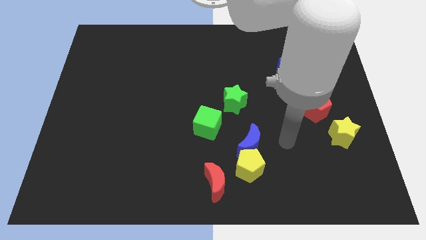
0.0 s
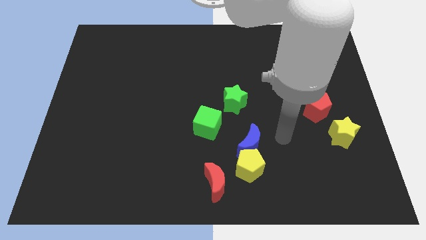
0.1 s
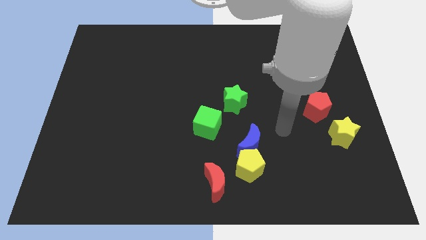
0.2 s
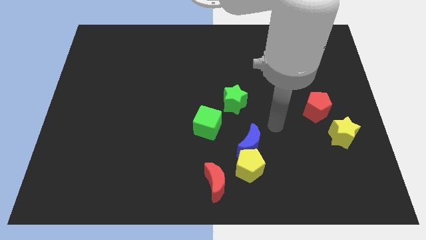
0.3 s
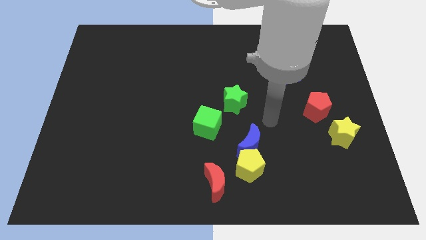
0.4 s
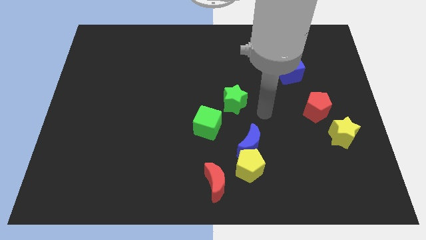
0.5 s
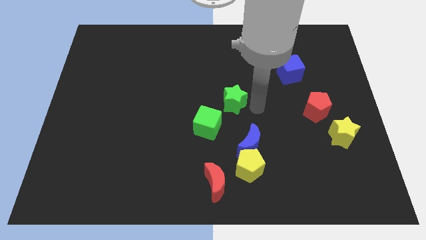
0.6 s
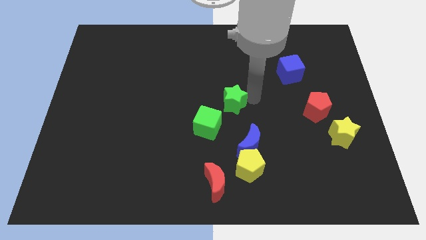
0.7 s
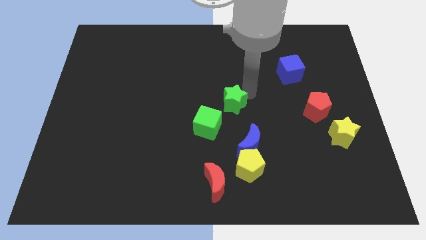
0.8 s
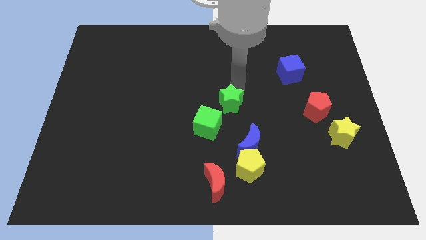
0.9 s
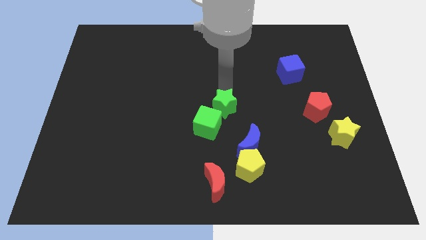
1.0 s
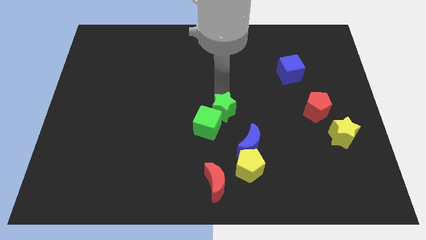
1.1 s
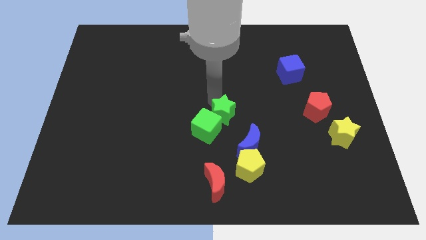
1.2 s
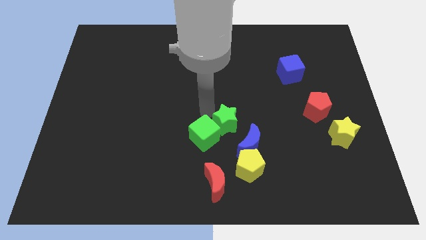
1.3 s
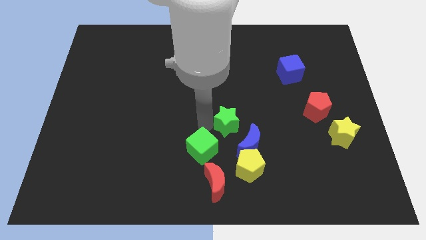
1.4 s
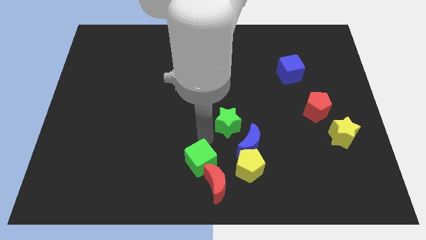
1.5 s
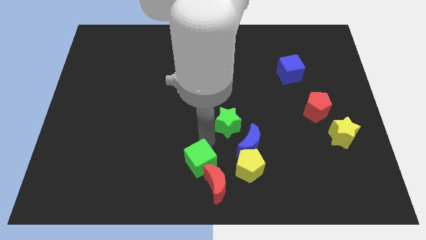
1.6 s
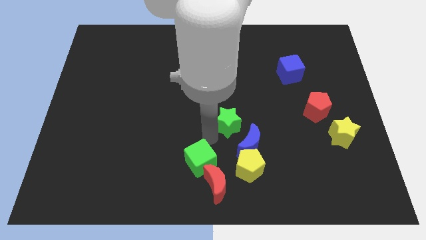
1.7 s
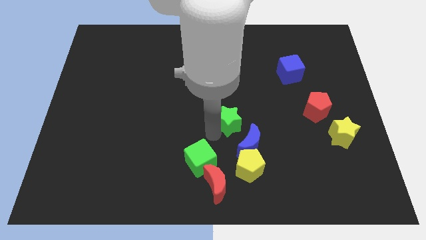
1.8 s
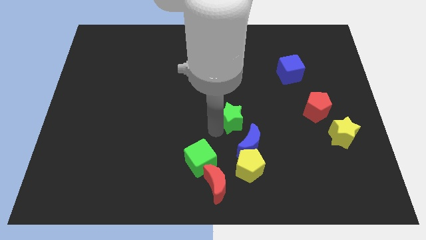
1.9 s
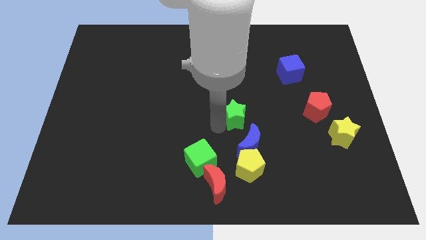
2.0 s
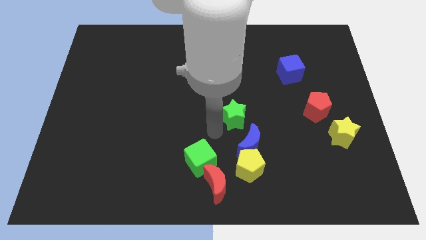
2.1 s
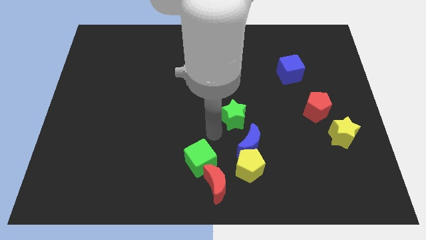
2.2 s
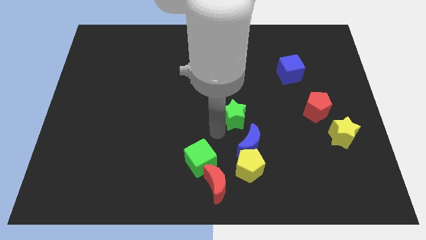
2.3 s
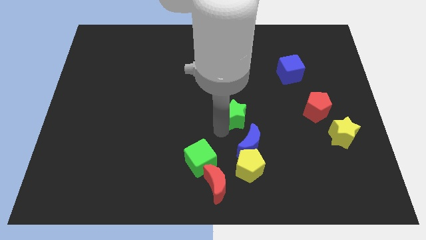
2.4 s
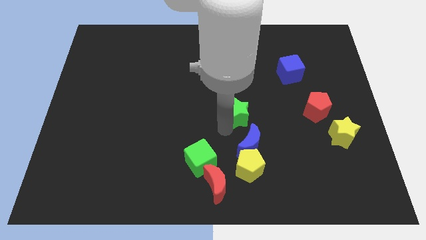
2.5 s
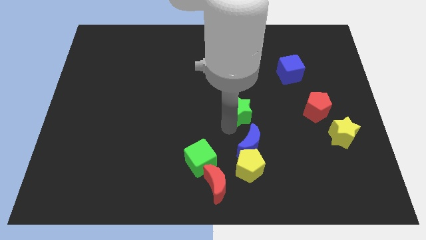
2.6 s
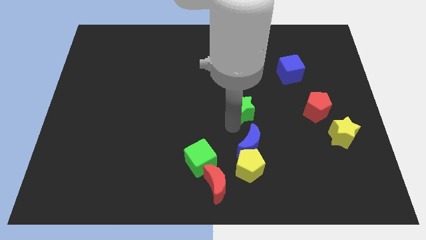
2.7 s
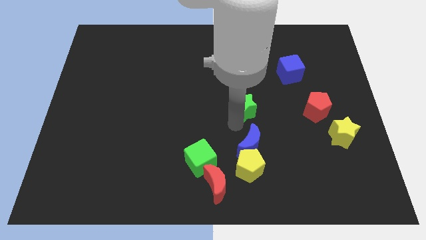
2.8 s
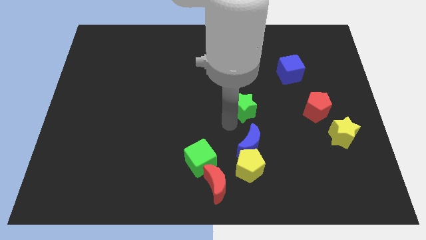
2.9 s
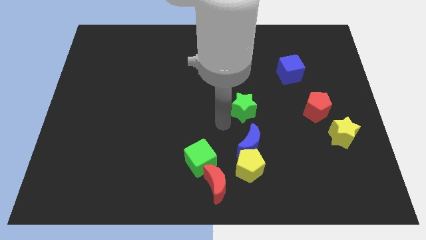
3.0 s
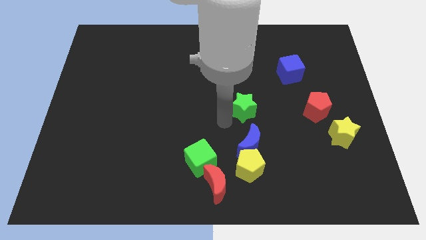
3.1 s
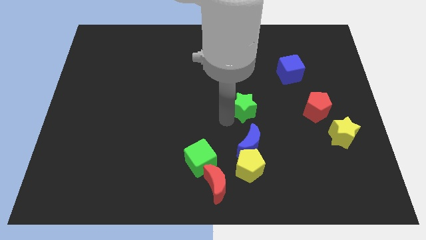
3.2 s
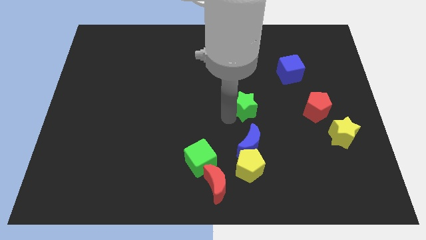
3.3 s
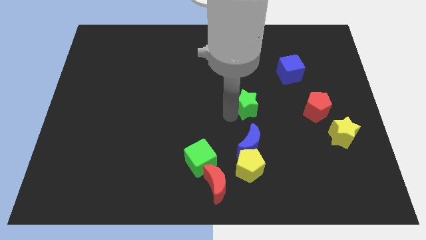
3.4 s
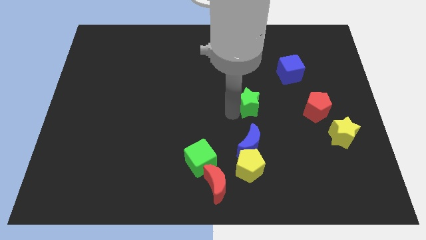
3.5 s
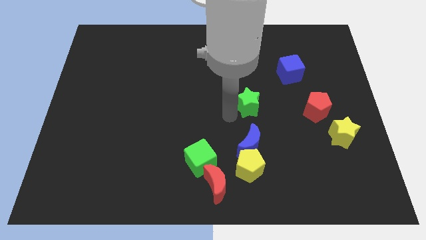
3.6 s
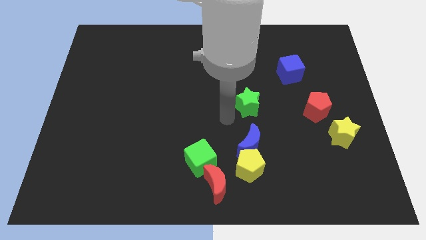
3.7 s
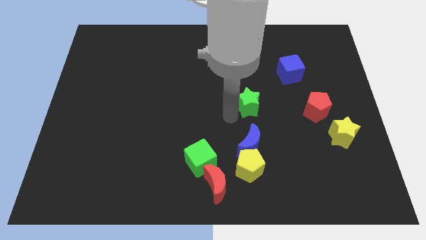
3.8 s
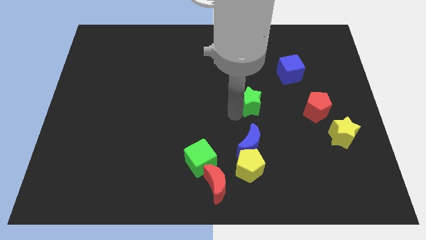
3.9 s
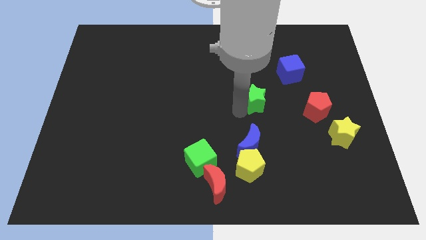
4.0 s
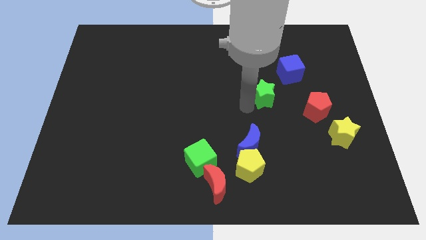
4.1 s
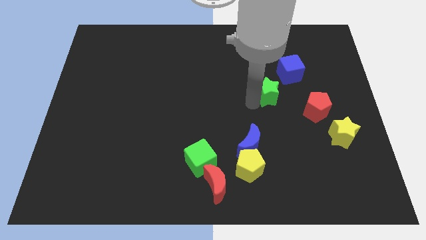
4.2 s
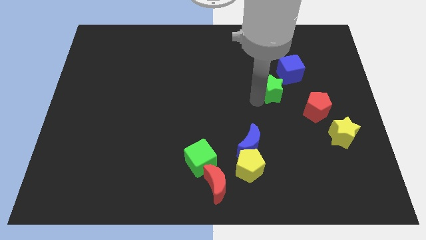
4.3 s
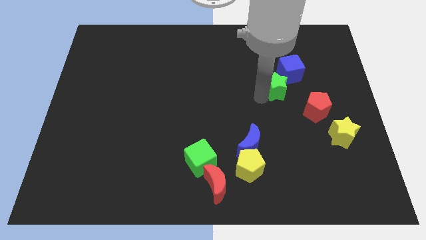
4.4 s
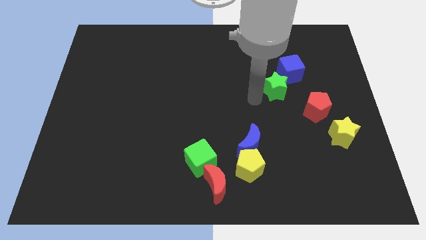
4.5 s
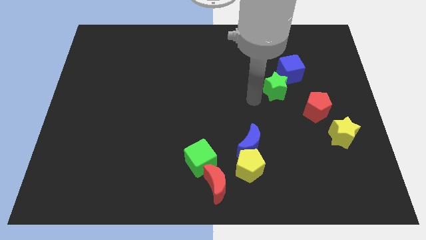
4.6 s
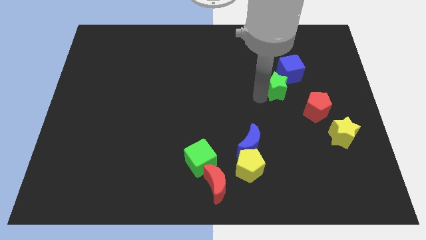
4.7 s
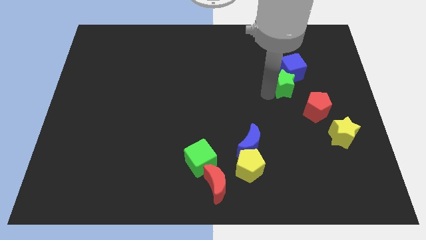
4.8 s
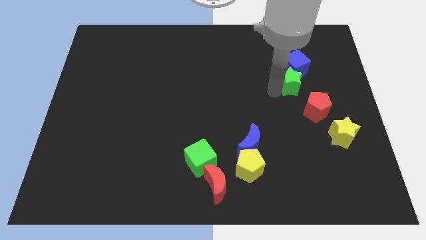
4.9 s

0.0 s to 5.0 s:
move the green star to the top of the red pentagon

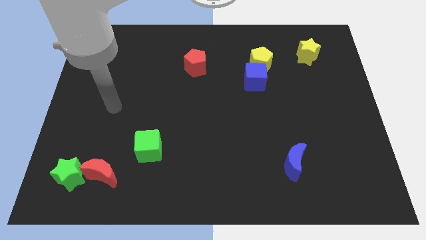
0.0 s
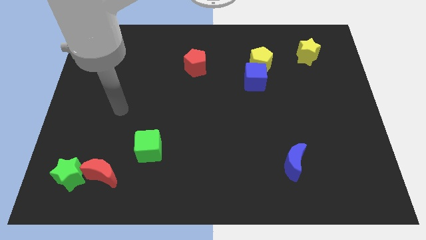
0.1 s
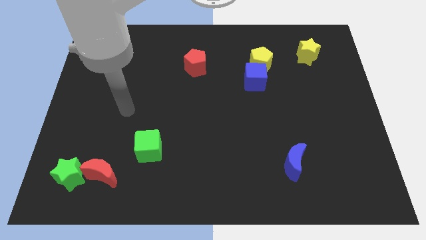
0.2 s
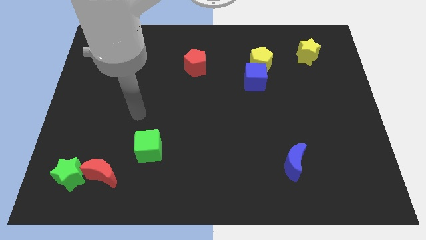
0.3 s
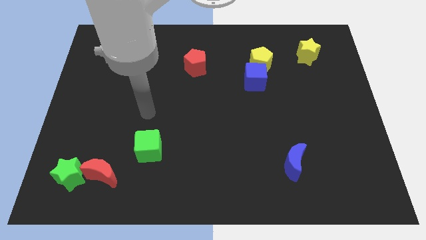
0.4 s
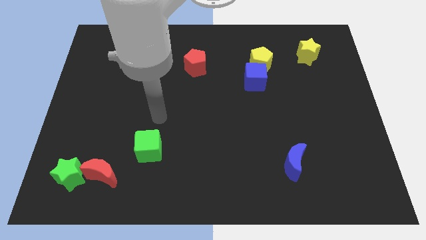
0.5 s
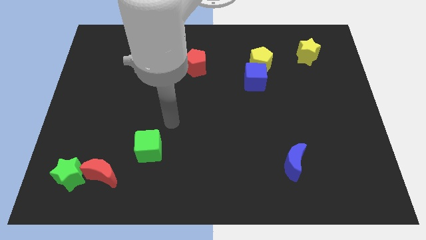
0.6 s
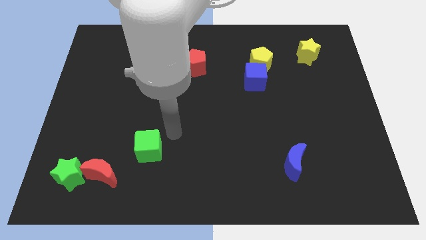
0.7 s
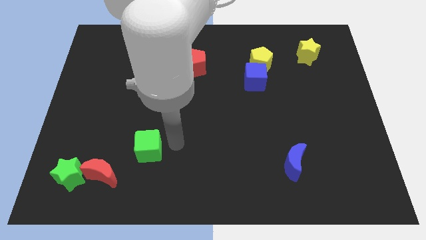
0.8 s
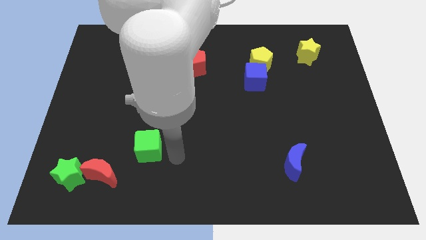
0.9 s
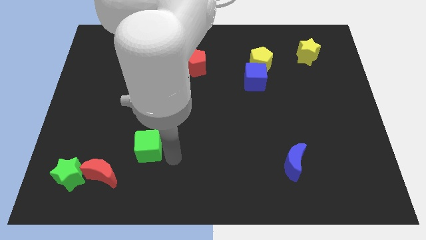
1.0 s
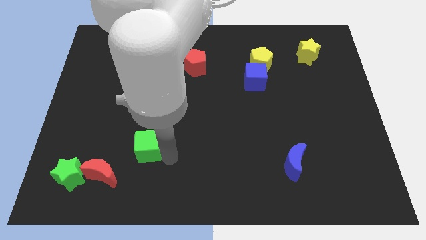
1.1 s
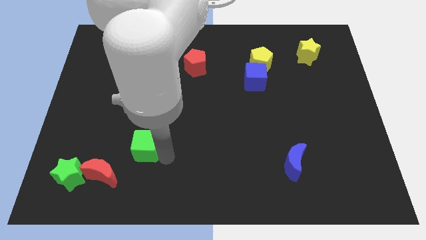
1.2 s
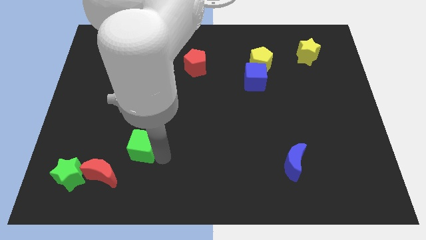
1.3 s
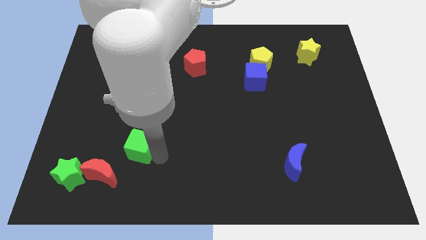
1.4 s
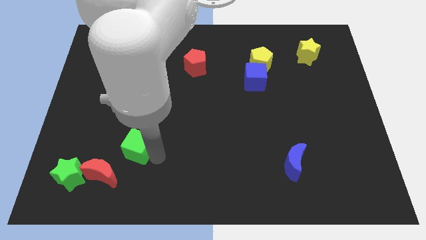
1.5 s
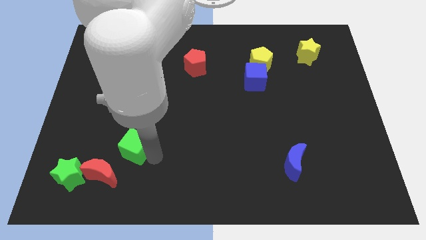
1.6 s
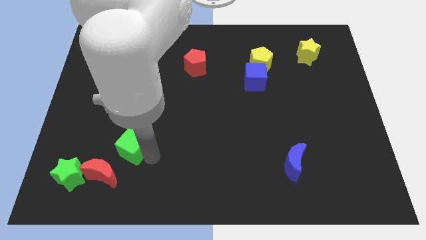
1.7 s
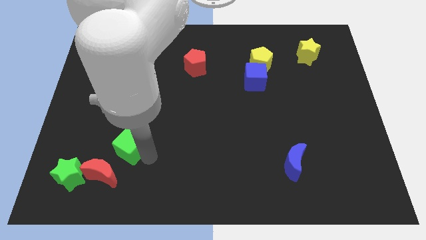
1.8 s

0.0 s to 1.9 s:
move the green cube above the red moon

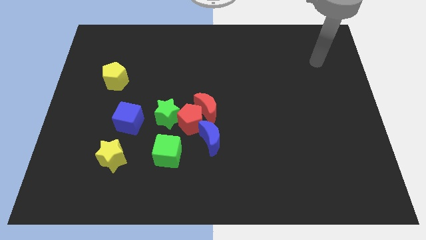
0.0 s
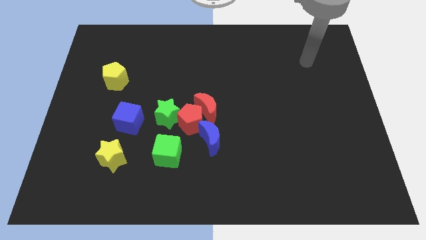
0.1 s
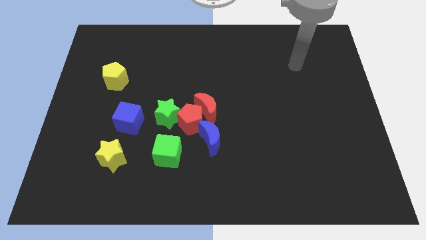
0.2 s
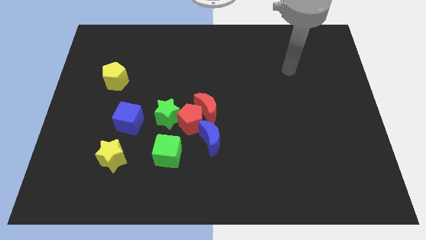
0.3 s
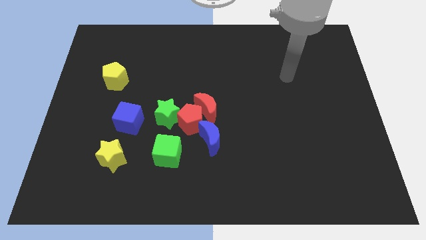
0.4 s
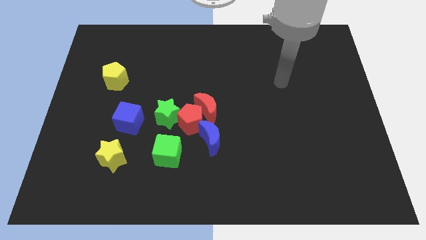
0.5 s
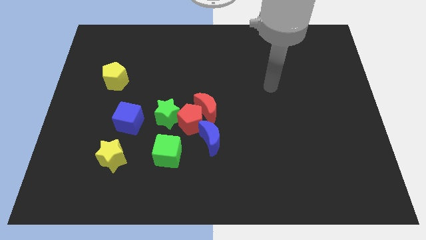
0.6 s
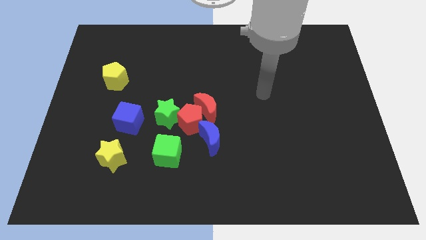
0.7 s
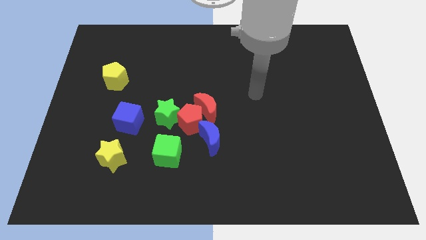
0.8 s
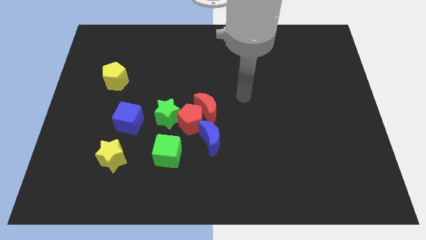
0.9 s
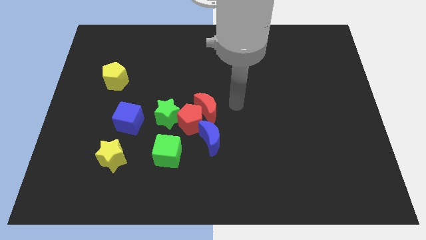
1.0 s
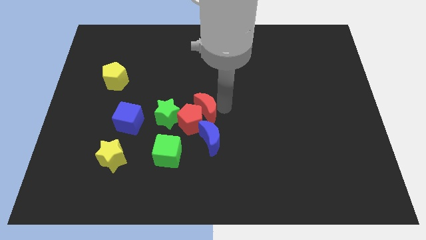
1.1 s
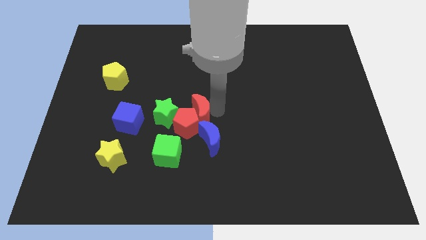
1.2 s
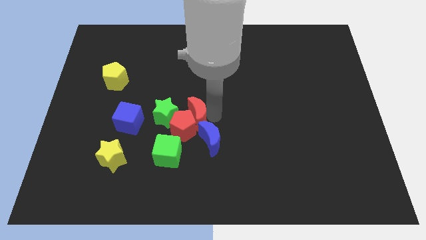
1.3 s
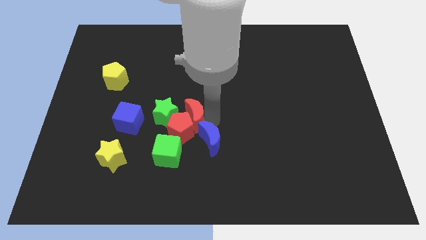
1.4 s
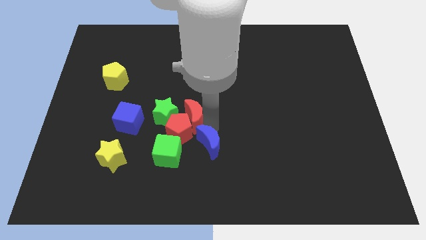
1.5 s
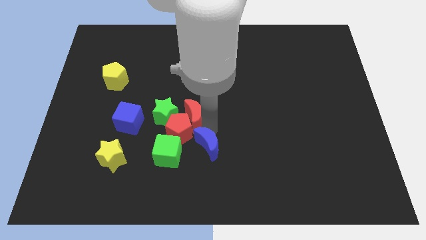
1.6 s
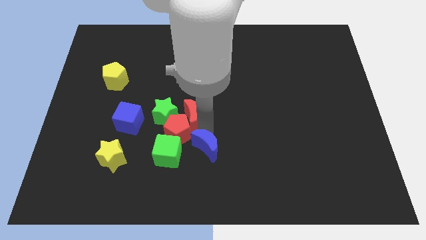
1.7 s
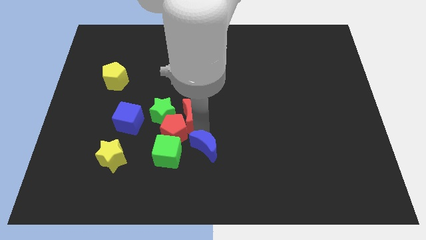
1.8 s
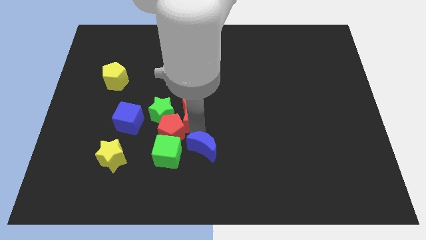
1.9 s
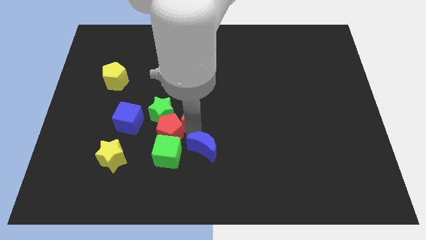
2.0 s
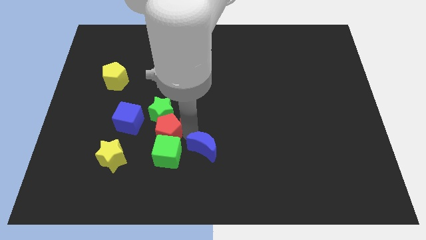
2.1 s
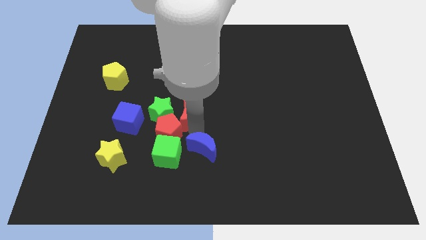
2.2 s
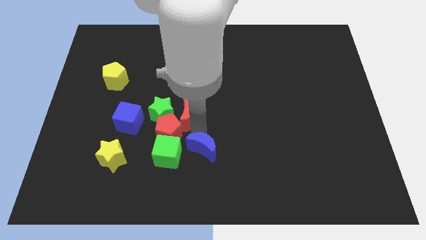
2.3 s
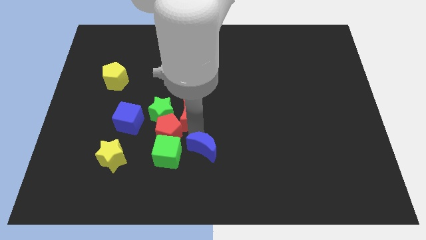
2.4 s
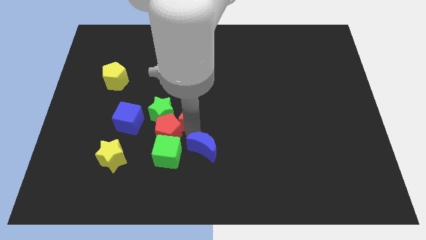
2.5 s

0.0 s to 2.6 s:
slide the red pentagon diagonally down and to the left of the green star
